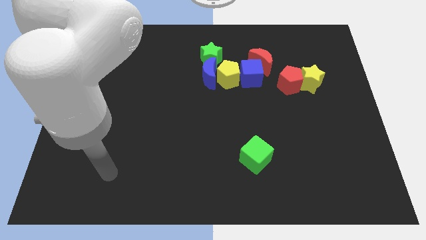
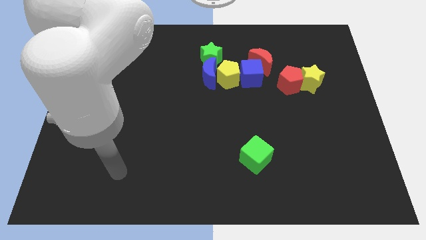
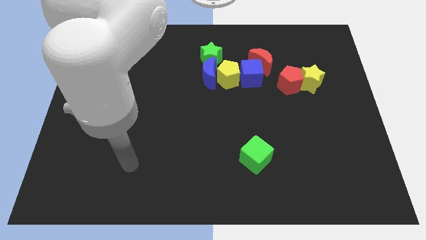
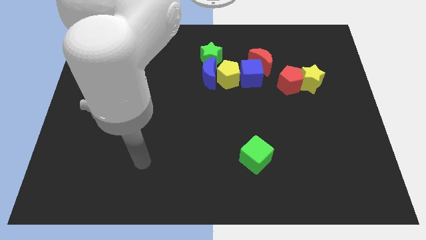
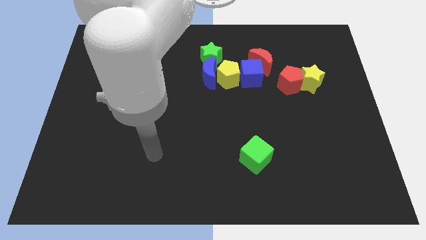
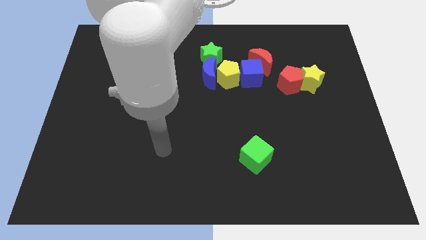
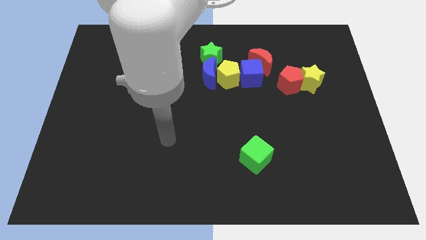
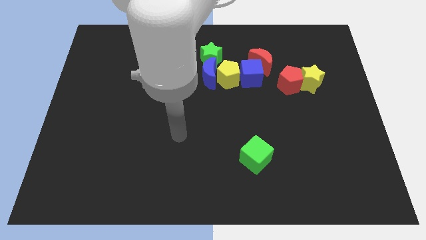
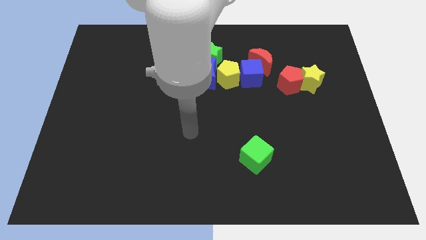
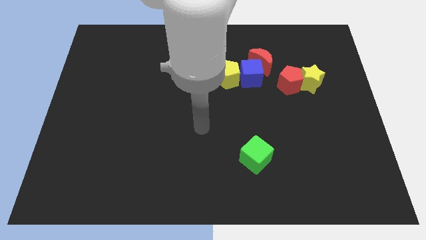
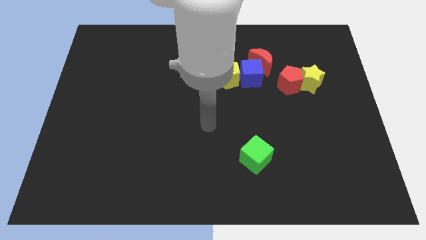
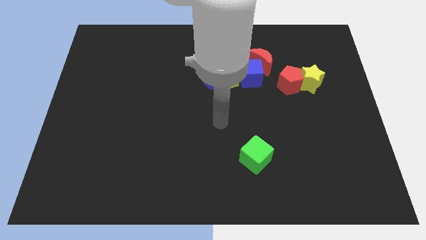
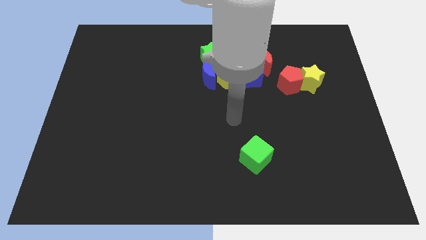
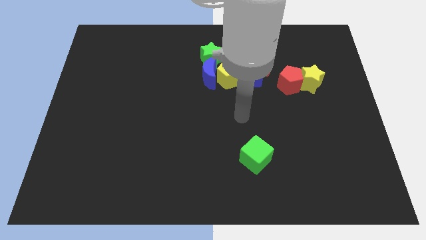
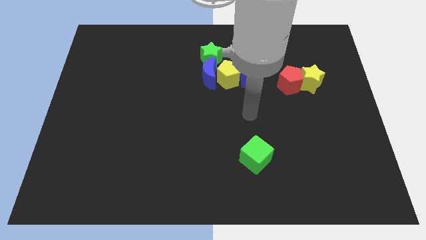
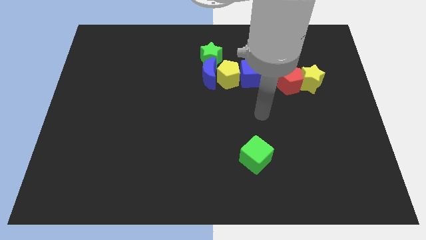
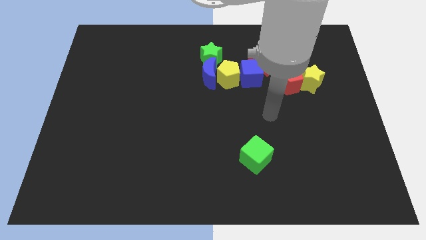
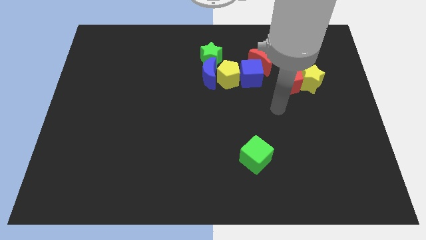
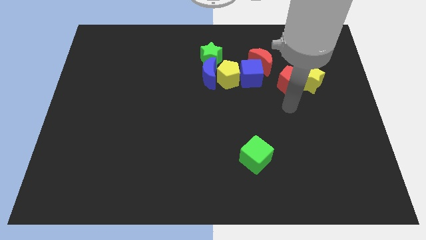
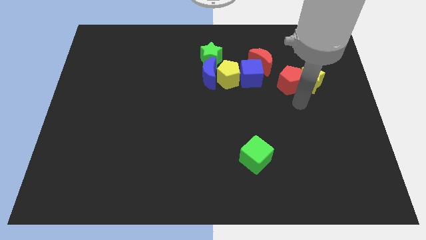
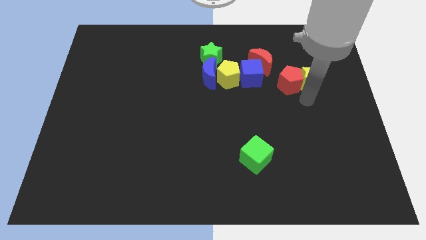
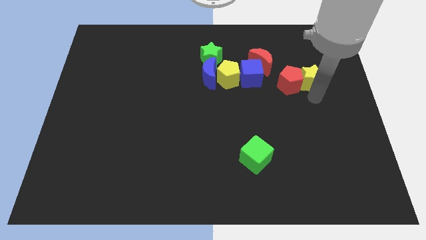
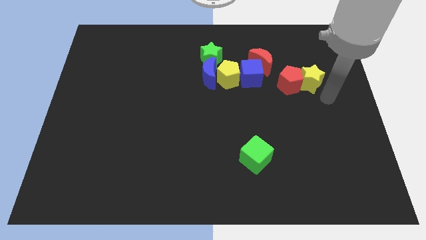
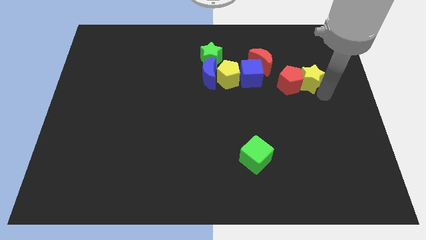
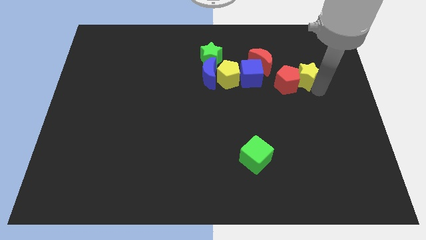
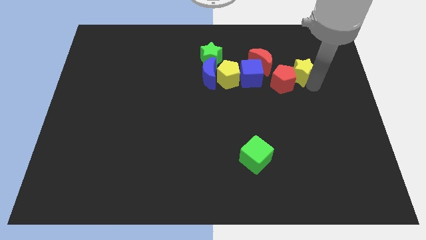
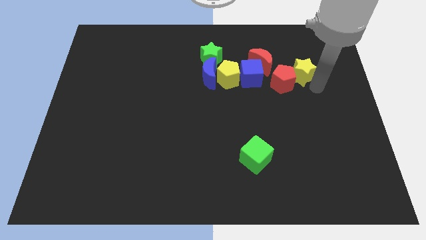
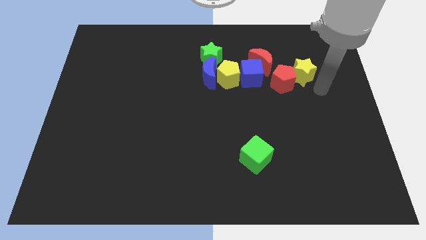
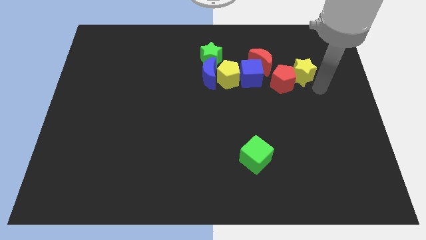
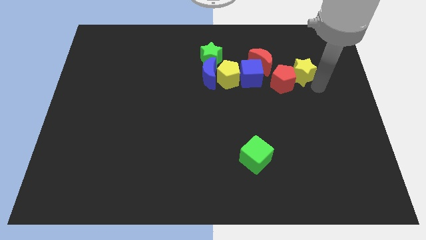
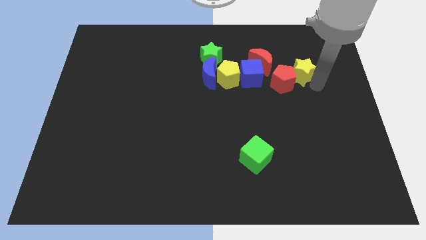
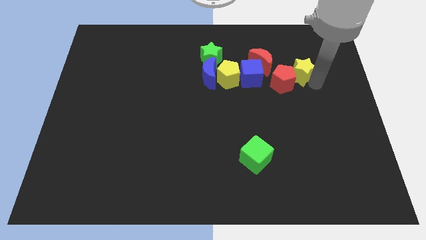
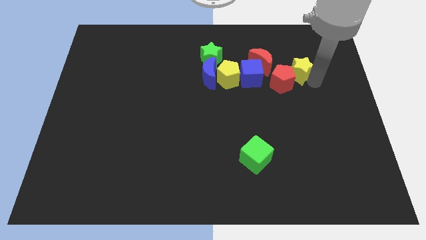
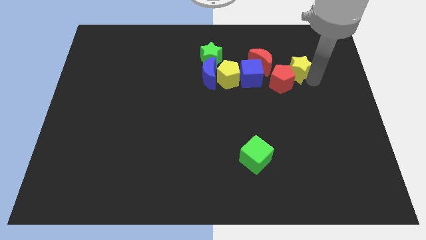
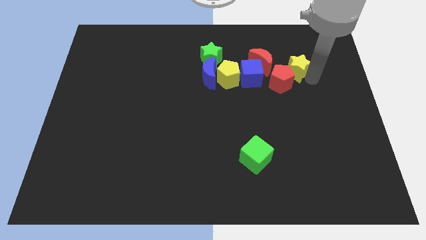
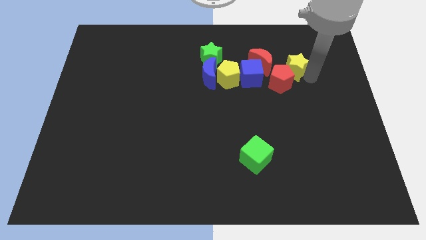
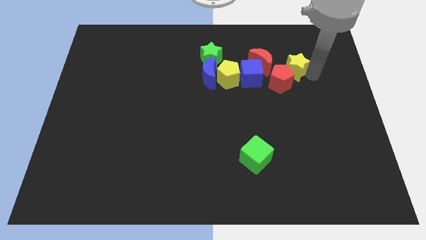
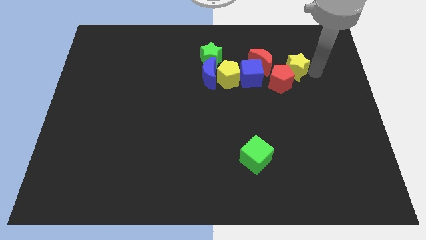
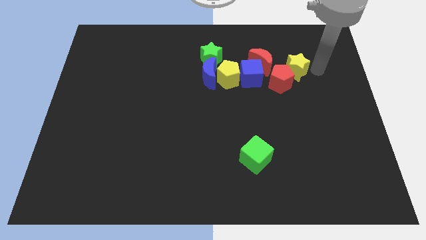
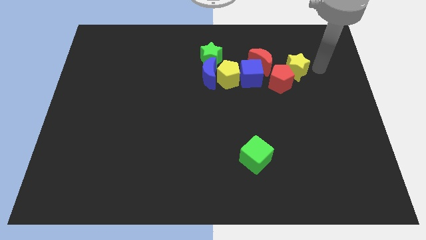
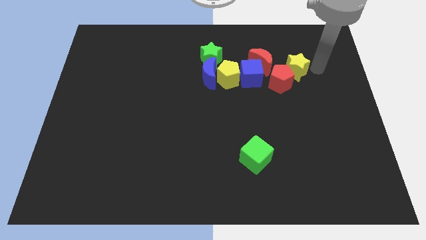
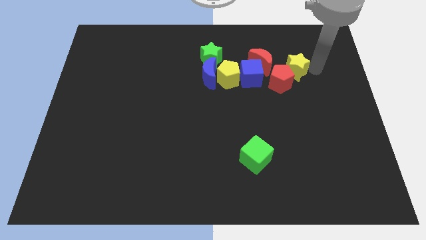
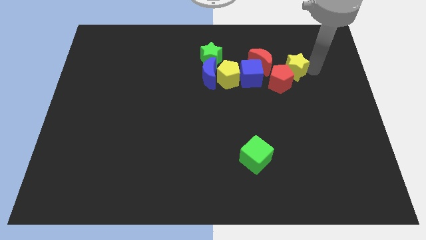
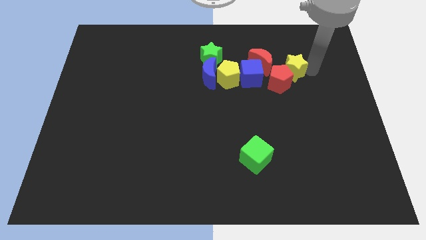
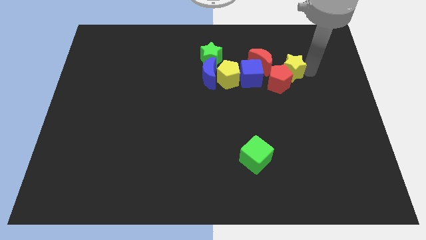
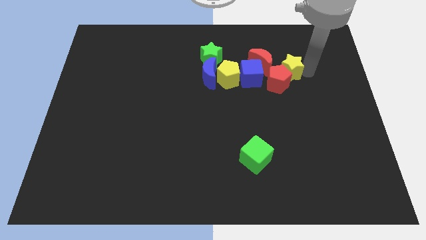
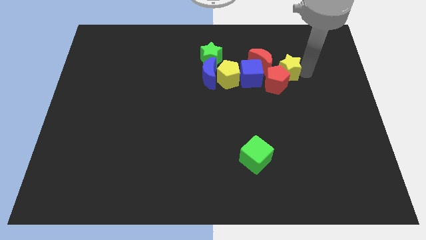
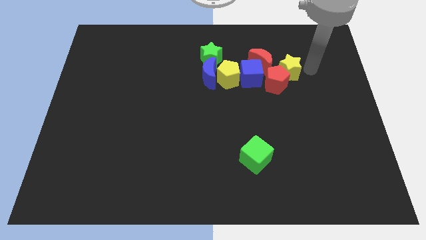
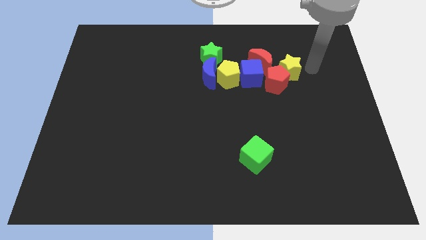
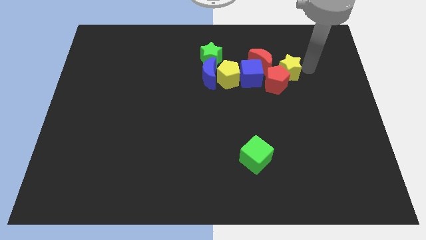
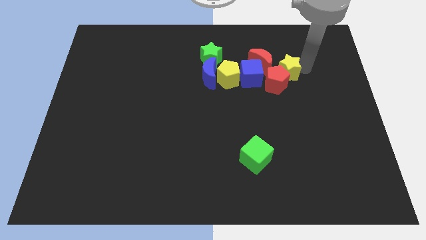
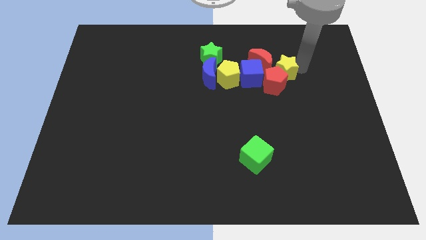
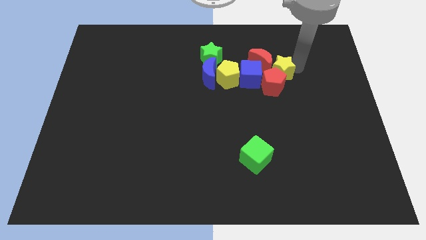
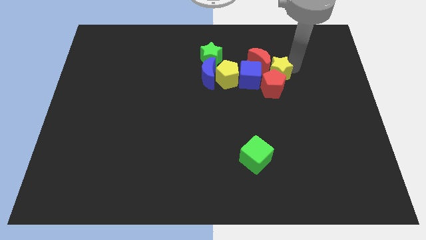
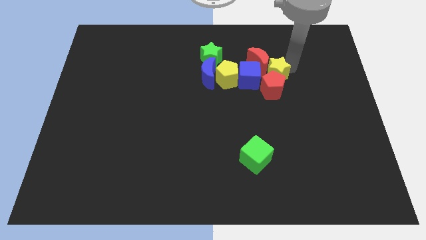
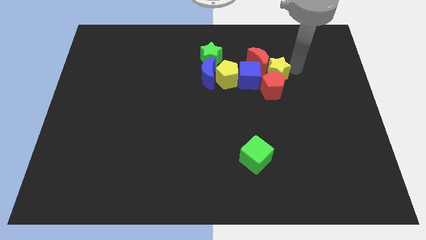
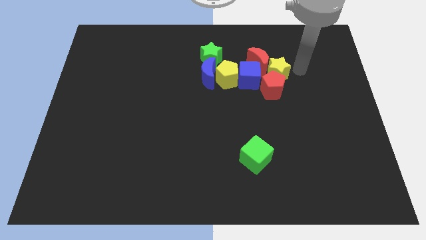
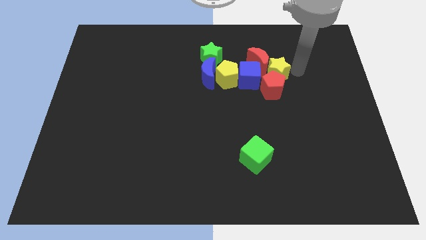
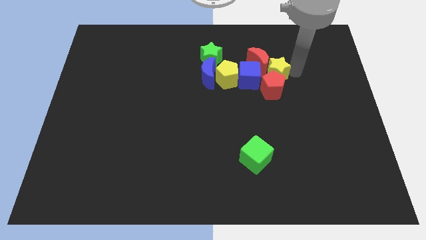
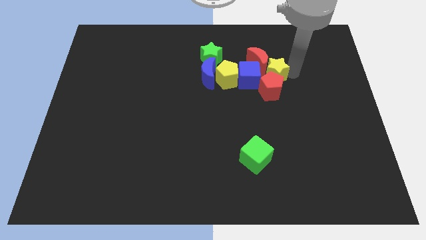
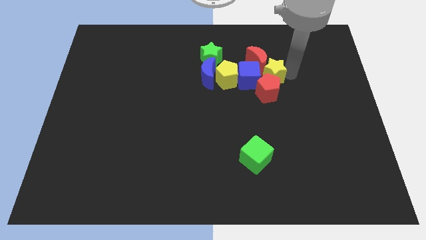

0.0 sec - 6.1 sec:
push the yellow star next to the blue cube

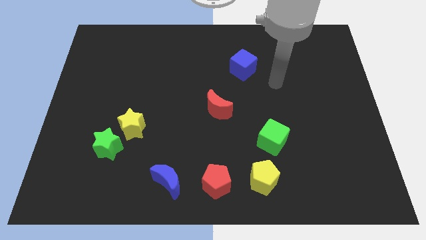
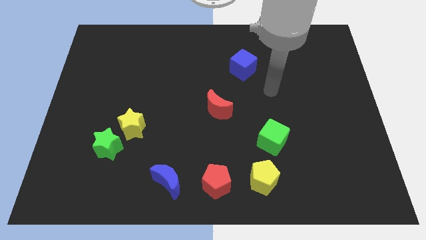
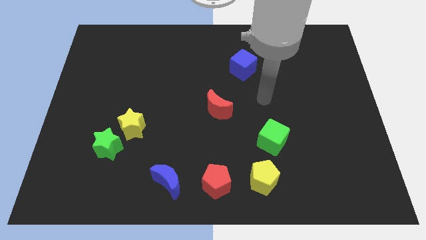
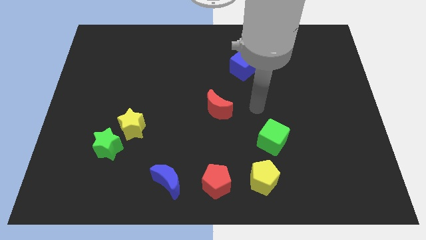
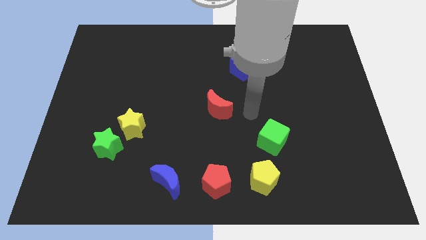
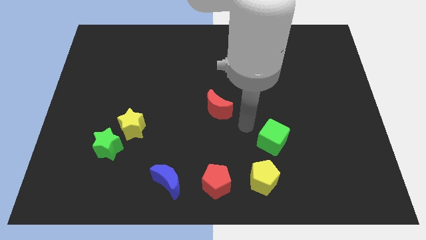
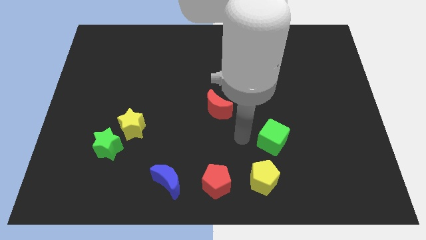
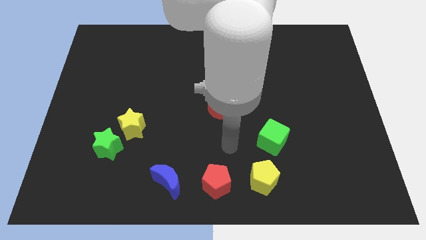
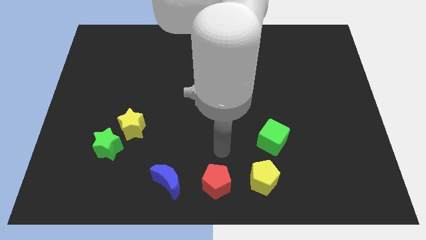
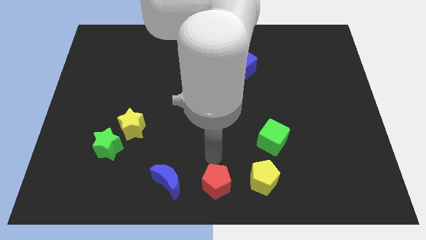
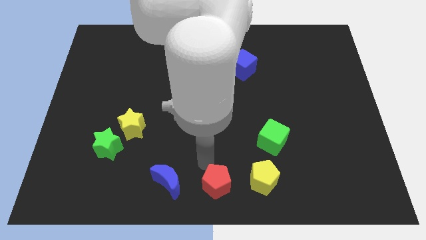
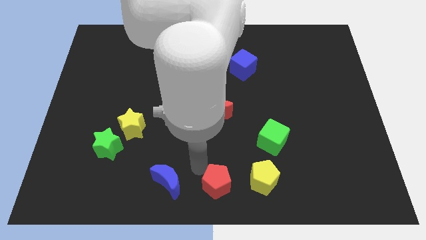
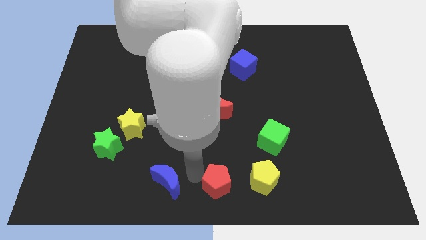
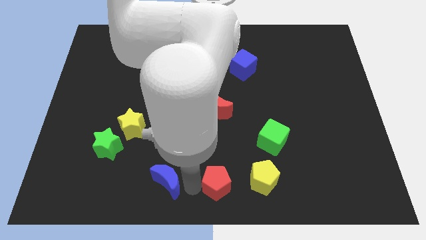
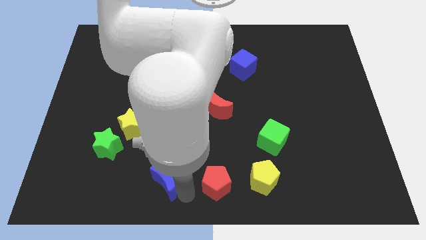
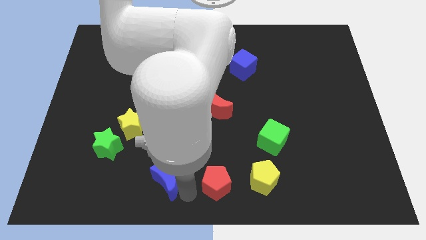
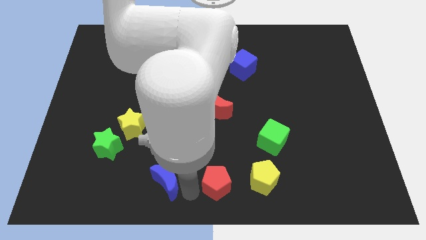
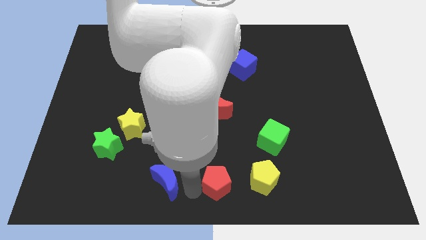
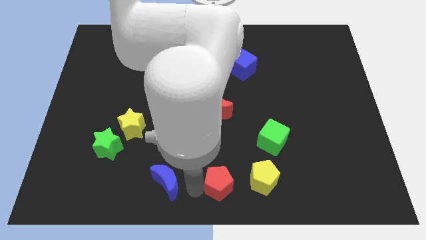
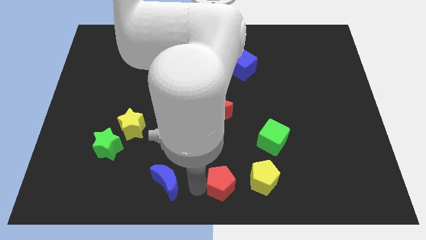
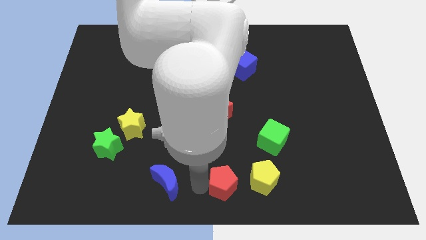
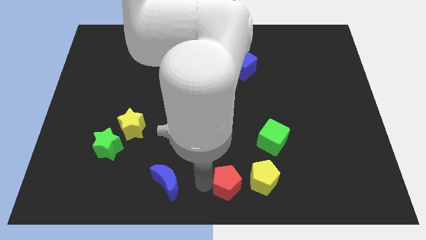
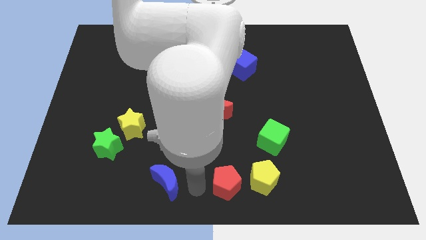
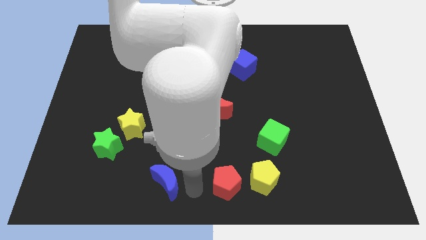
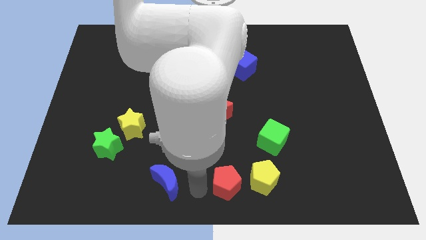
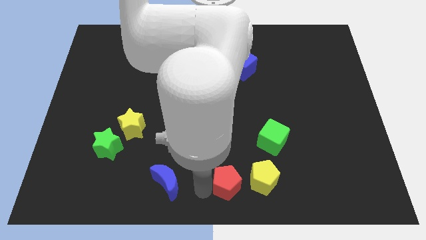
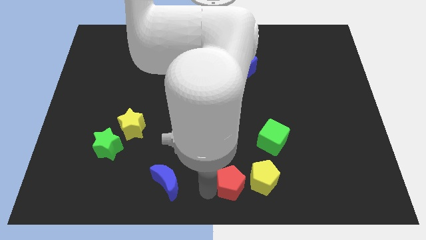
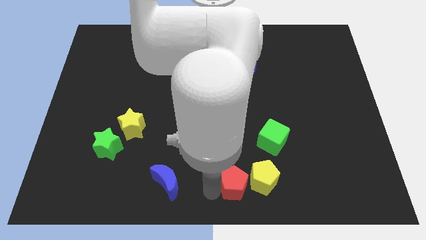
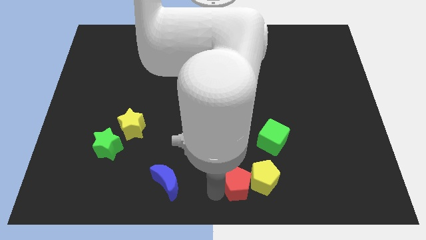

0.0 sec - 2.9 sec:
move the red pentagon next to the yellow pentagon
